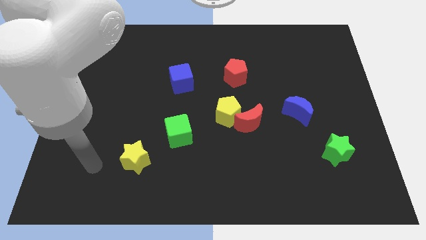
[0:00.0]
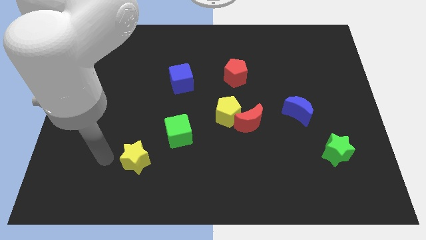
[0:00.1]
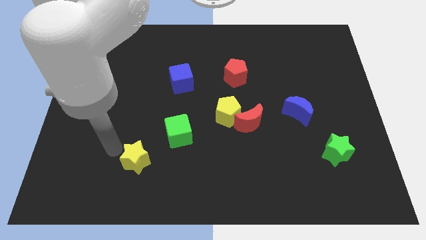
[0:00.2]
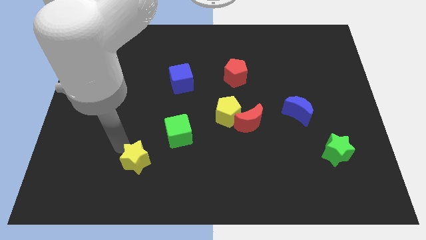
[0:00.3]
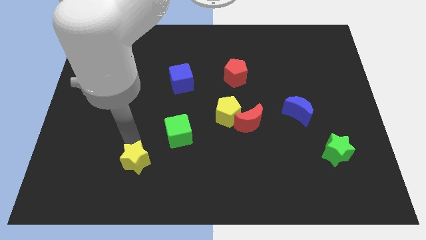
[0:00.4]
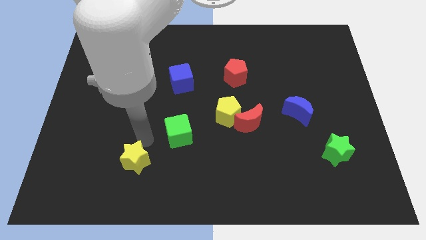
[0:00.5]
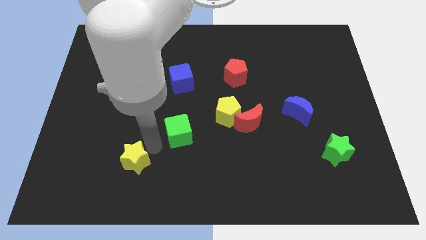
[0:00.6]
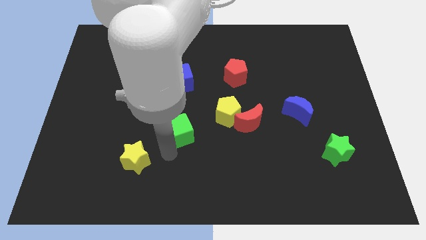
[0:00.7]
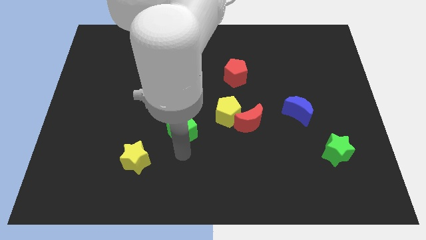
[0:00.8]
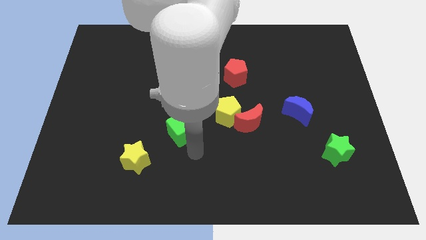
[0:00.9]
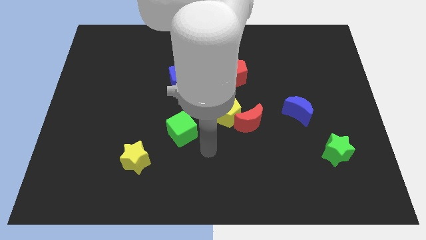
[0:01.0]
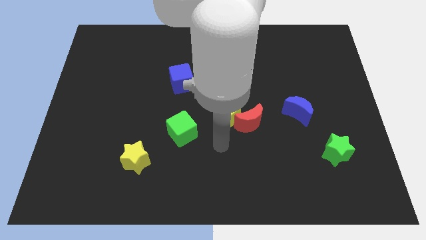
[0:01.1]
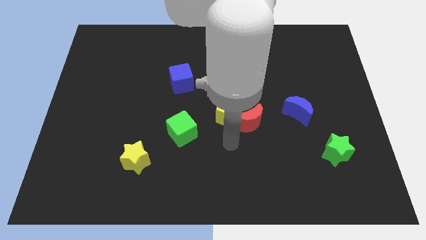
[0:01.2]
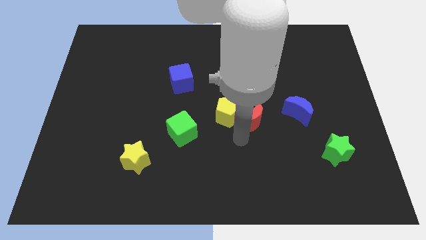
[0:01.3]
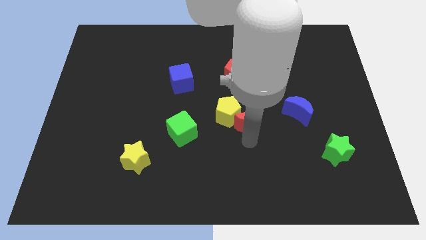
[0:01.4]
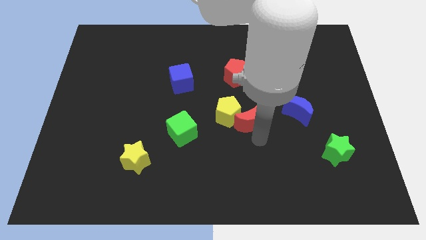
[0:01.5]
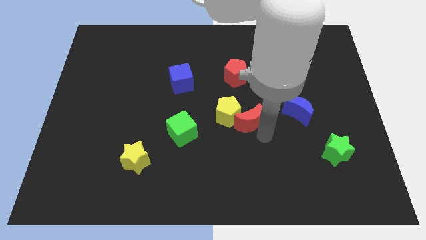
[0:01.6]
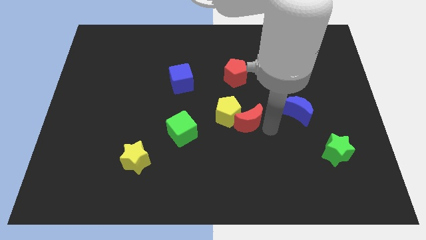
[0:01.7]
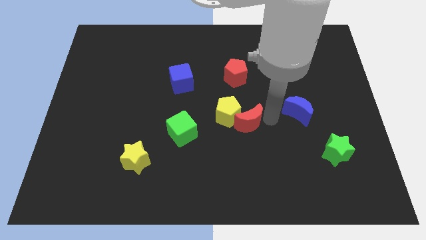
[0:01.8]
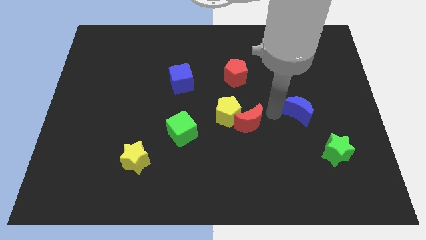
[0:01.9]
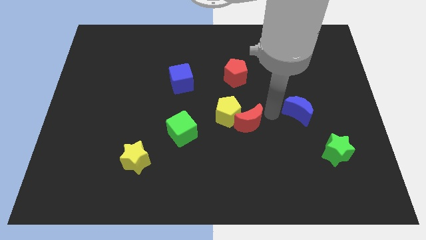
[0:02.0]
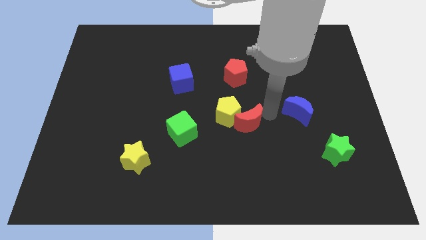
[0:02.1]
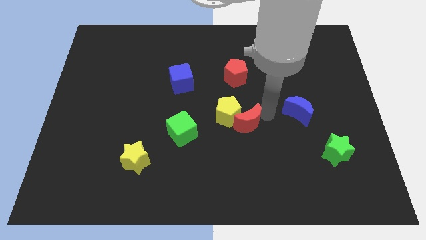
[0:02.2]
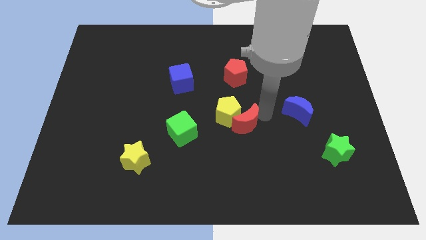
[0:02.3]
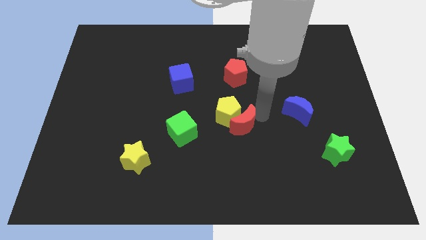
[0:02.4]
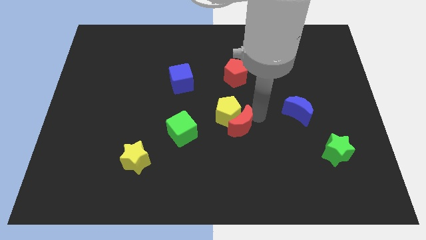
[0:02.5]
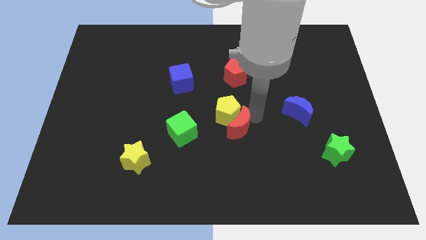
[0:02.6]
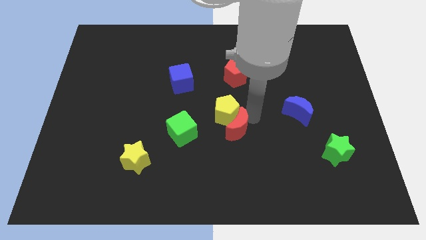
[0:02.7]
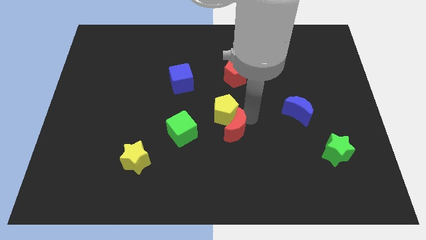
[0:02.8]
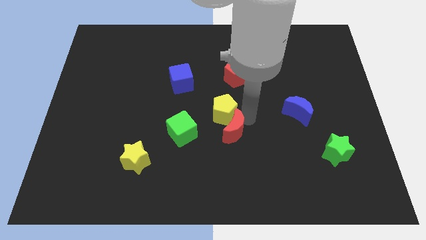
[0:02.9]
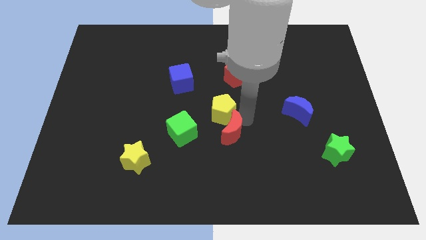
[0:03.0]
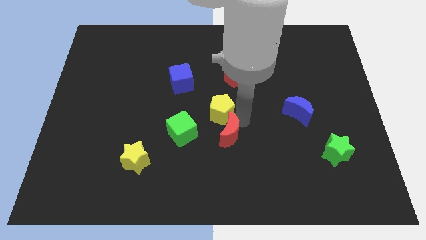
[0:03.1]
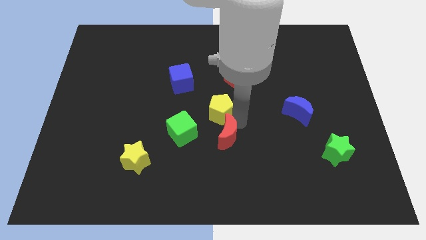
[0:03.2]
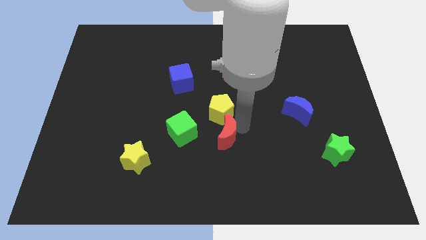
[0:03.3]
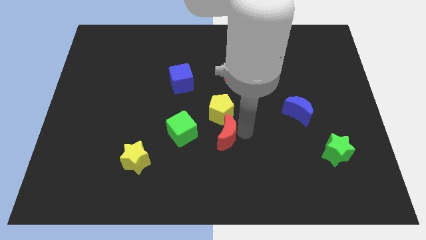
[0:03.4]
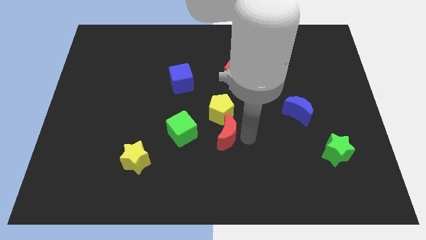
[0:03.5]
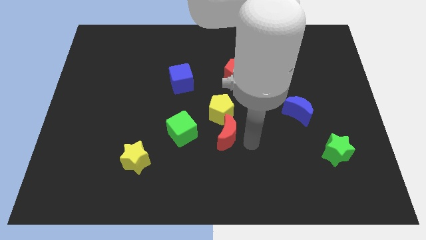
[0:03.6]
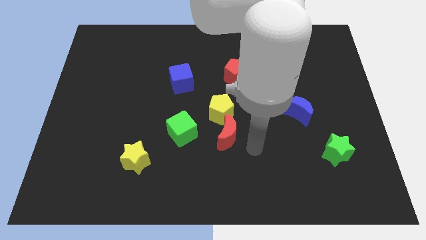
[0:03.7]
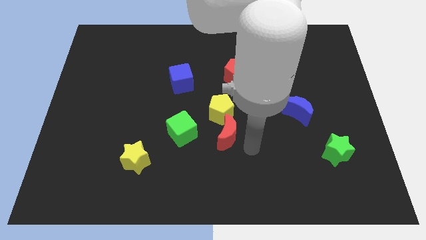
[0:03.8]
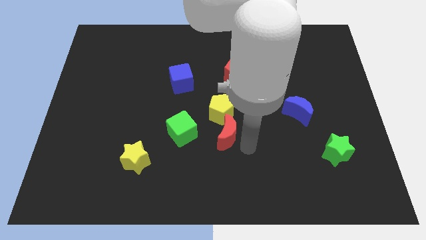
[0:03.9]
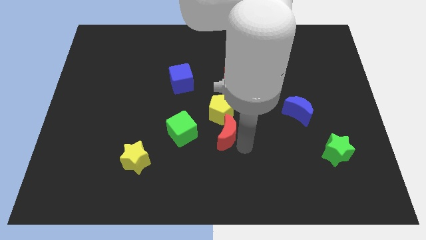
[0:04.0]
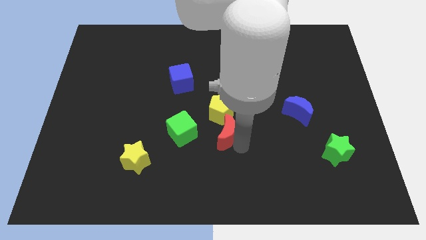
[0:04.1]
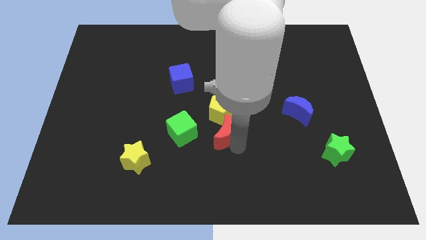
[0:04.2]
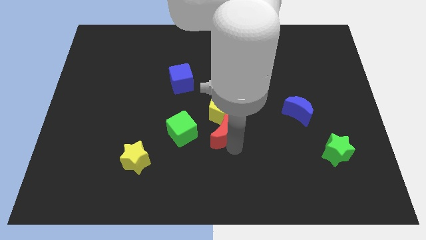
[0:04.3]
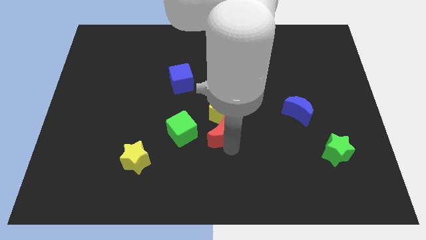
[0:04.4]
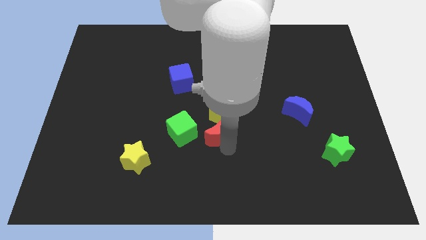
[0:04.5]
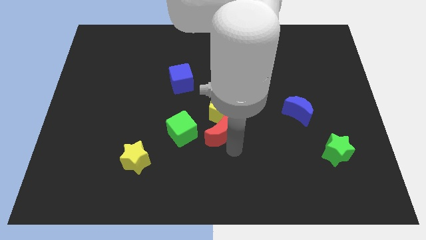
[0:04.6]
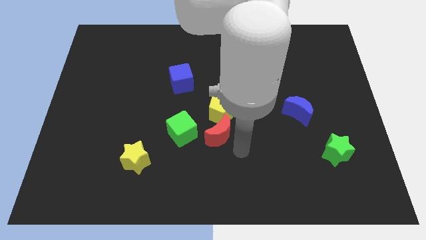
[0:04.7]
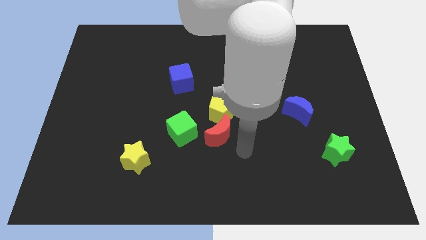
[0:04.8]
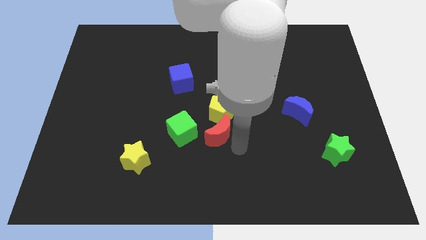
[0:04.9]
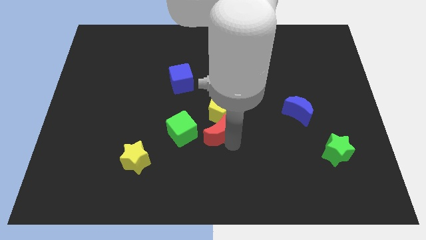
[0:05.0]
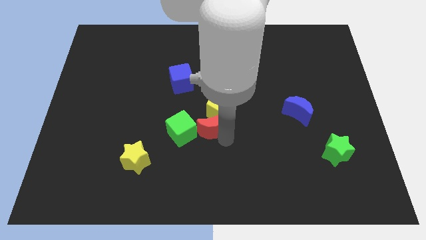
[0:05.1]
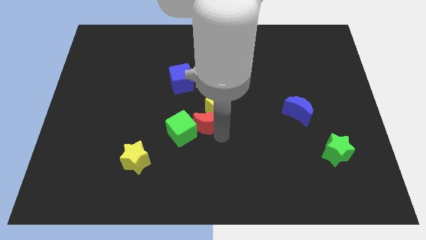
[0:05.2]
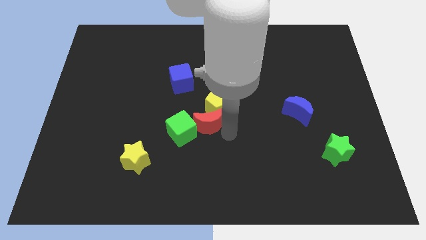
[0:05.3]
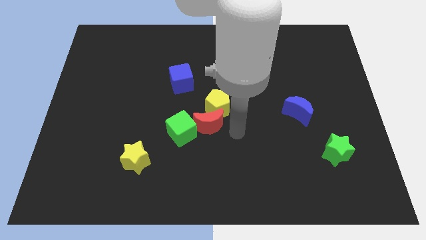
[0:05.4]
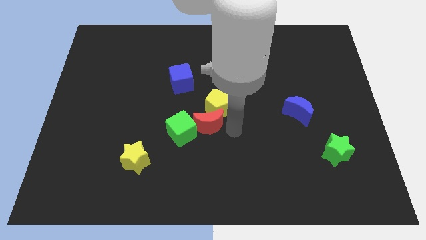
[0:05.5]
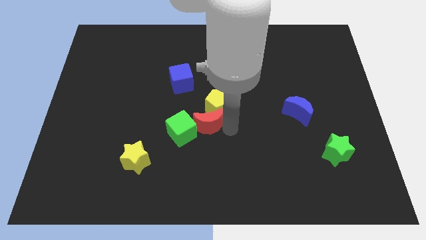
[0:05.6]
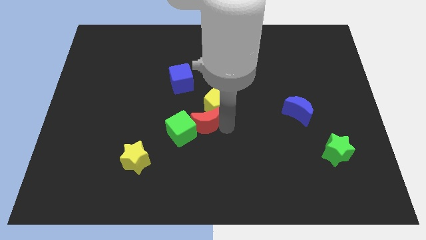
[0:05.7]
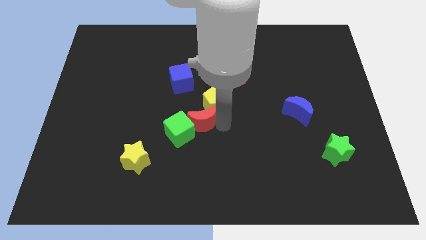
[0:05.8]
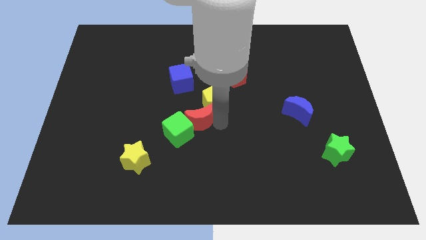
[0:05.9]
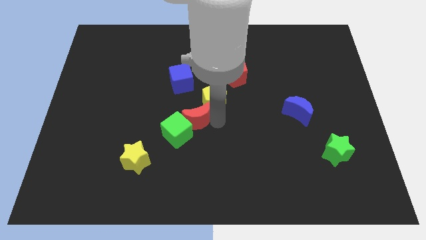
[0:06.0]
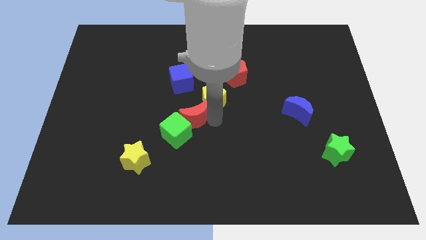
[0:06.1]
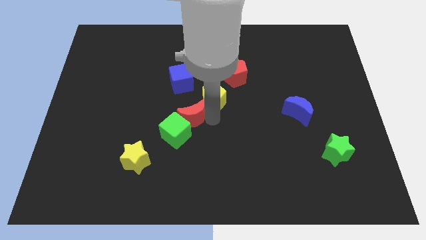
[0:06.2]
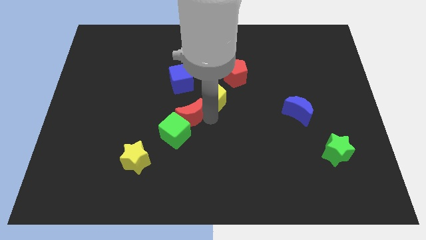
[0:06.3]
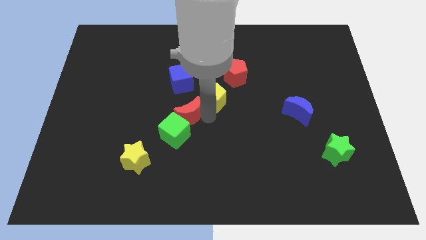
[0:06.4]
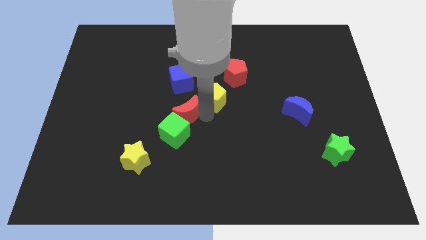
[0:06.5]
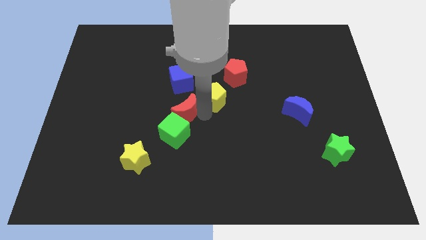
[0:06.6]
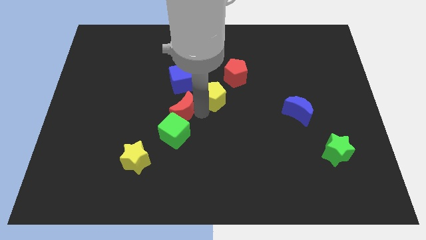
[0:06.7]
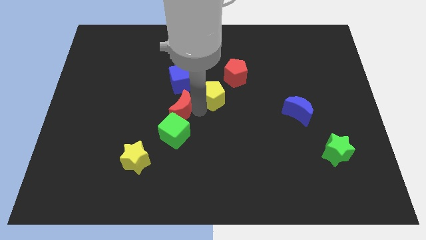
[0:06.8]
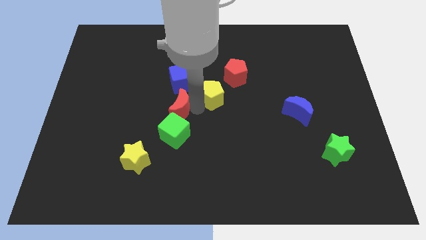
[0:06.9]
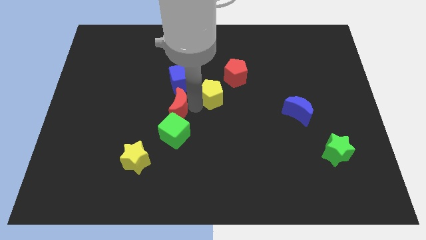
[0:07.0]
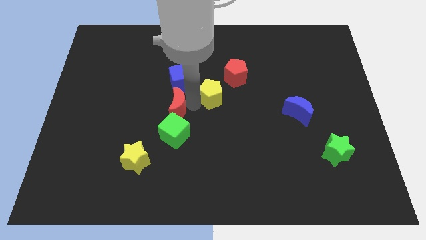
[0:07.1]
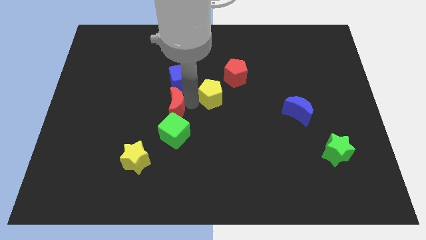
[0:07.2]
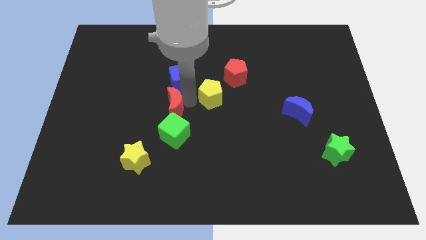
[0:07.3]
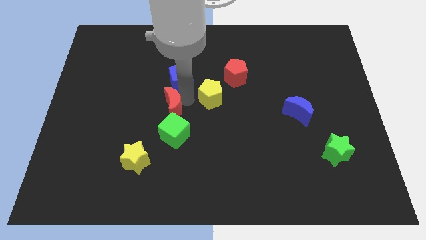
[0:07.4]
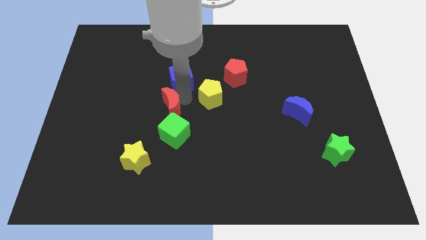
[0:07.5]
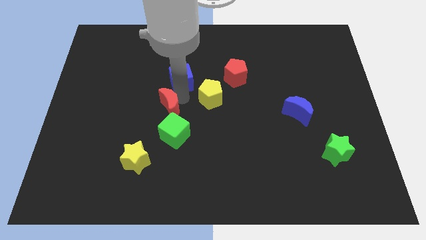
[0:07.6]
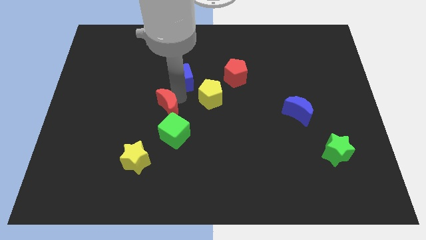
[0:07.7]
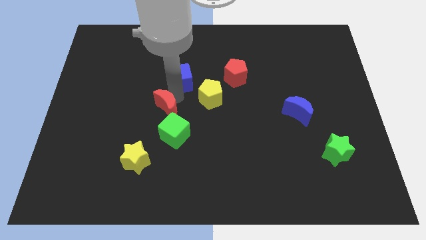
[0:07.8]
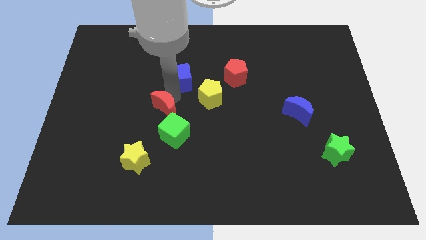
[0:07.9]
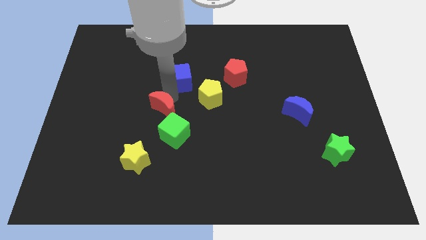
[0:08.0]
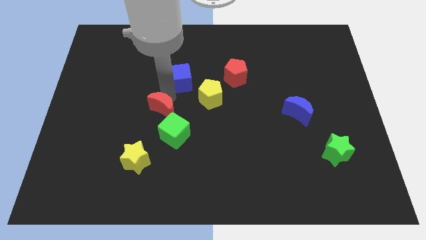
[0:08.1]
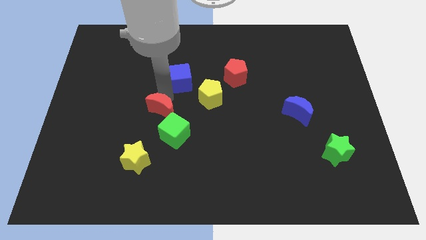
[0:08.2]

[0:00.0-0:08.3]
slide the red moon left
